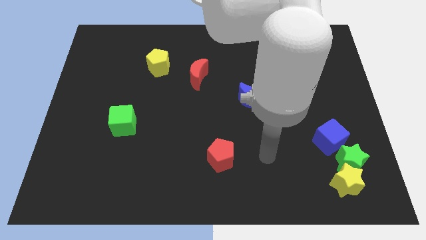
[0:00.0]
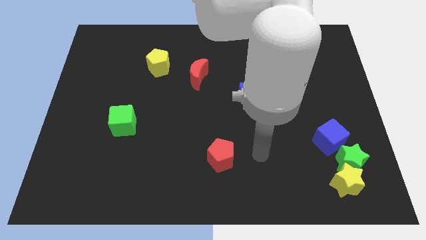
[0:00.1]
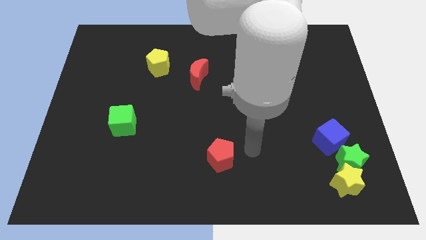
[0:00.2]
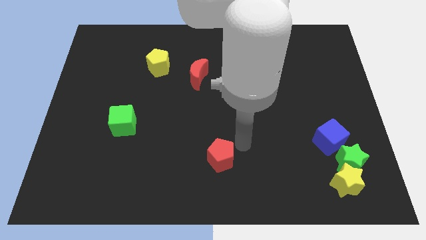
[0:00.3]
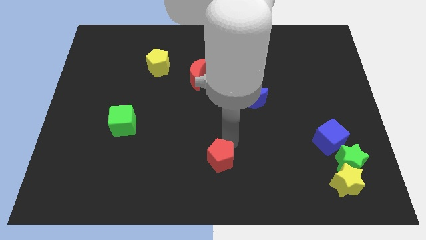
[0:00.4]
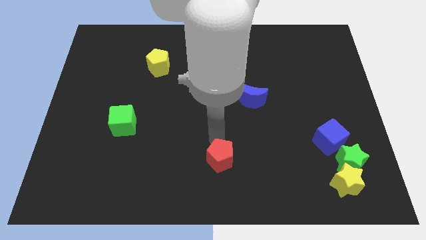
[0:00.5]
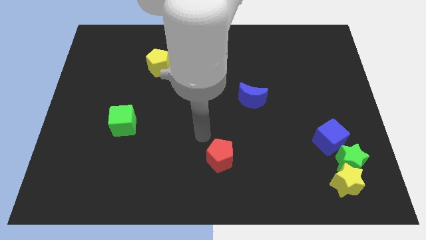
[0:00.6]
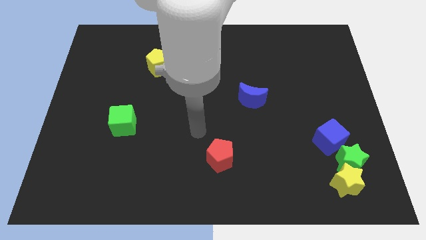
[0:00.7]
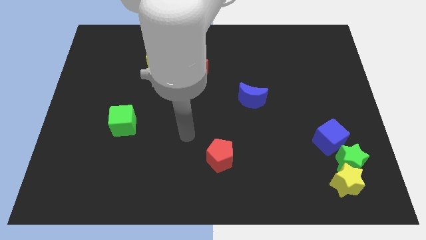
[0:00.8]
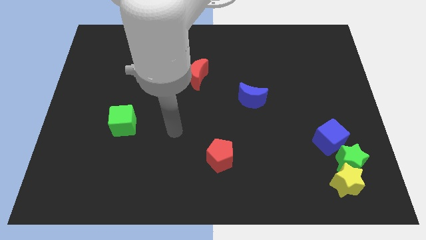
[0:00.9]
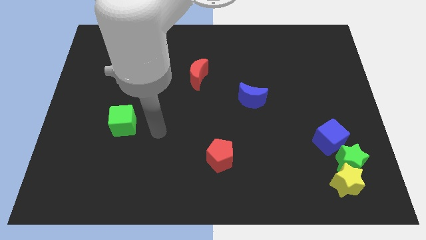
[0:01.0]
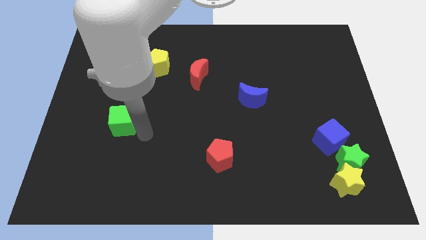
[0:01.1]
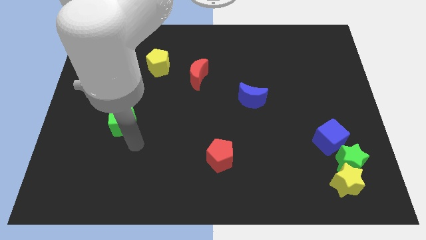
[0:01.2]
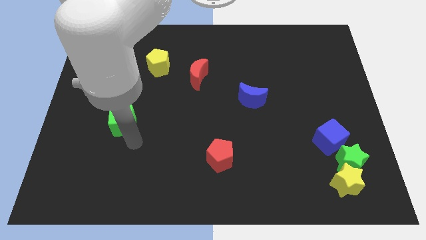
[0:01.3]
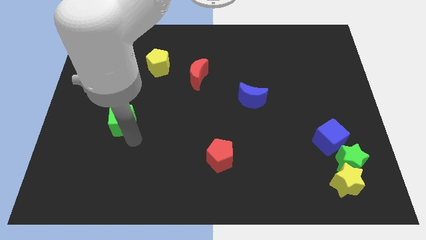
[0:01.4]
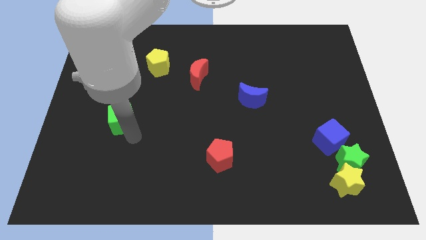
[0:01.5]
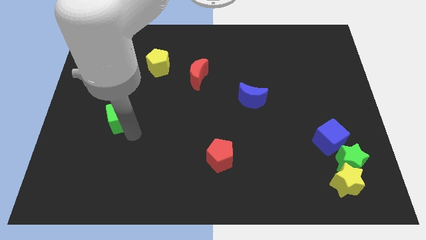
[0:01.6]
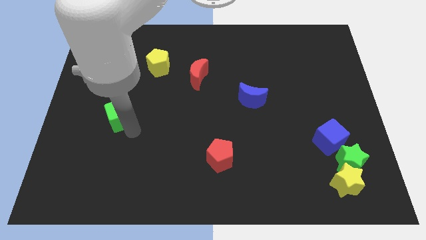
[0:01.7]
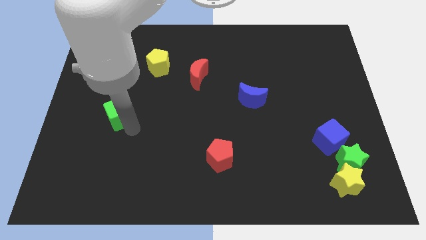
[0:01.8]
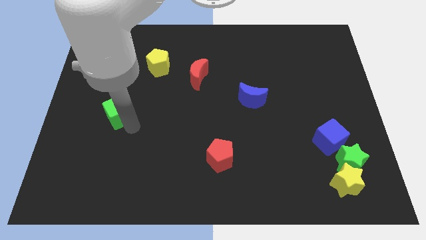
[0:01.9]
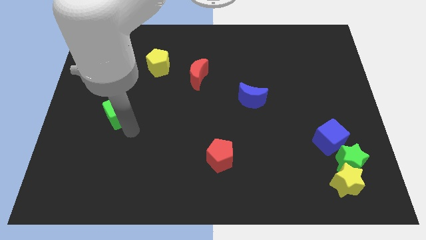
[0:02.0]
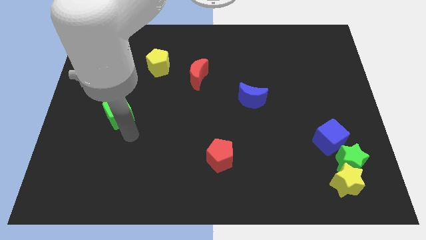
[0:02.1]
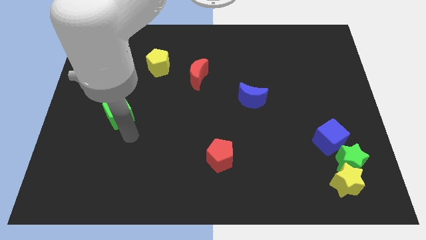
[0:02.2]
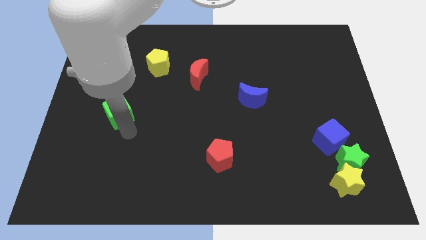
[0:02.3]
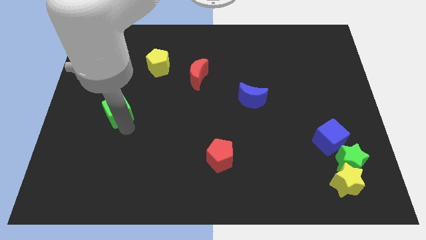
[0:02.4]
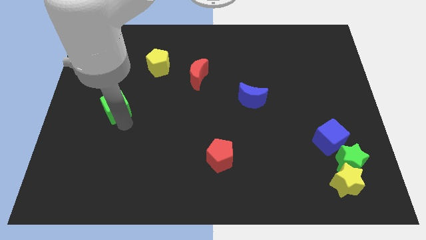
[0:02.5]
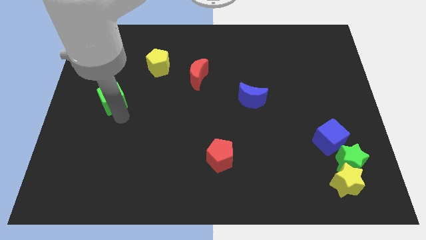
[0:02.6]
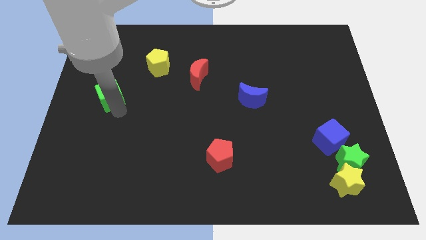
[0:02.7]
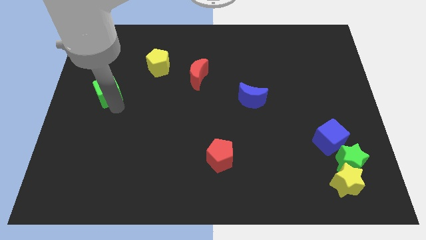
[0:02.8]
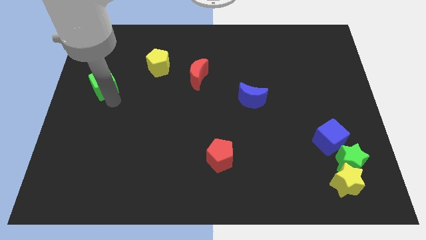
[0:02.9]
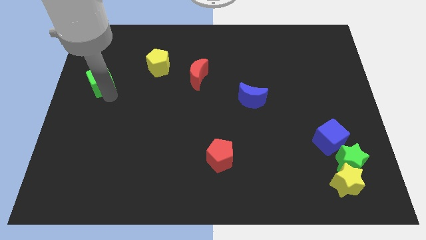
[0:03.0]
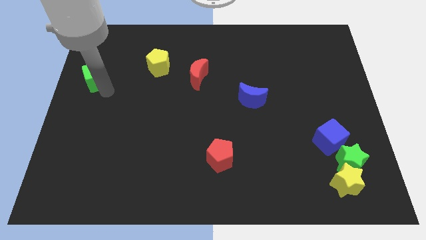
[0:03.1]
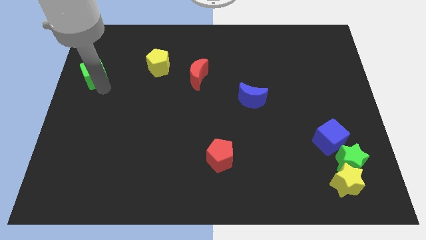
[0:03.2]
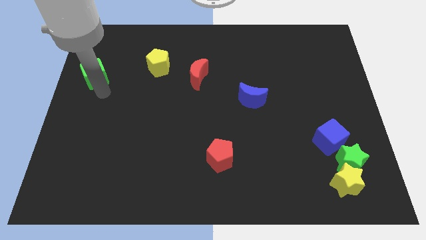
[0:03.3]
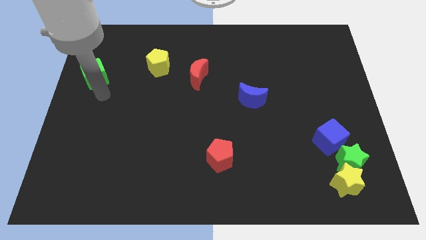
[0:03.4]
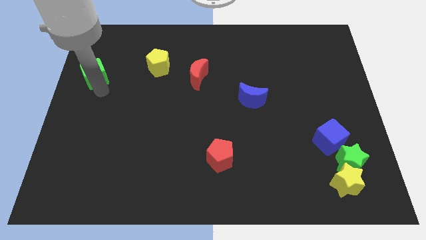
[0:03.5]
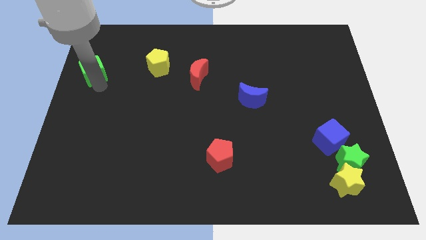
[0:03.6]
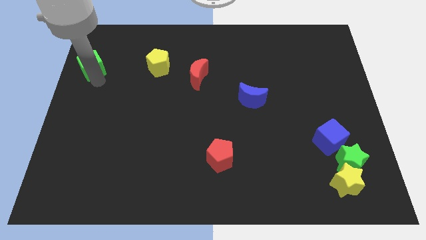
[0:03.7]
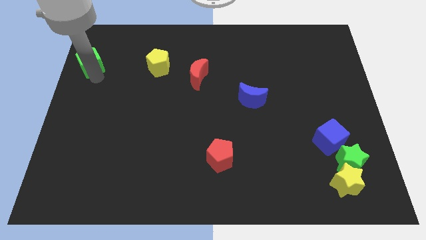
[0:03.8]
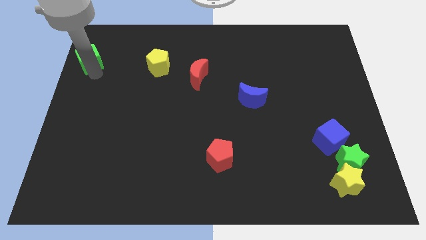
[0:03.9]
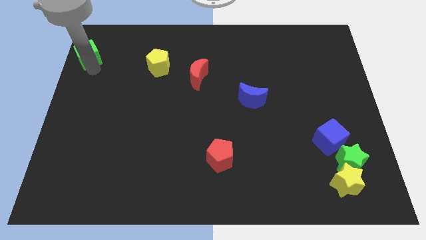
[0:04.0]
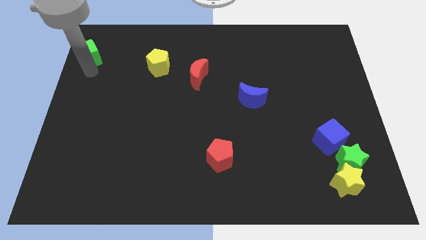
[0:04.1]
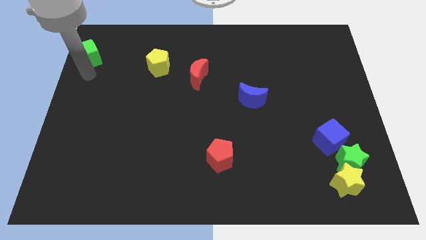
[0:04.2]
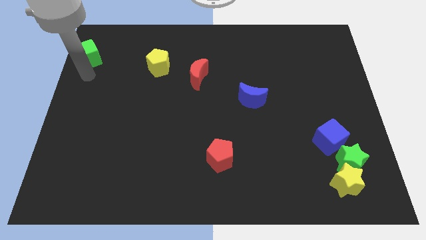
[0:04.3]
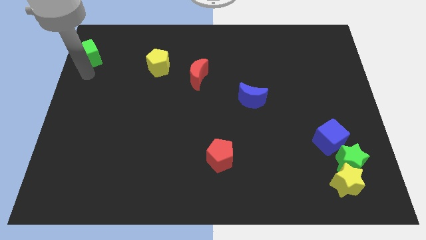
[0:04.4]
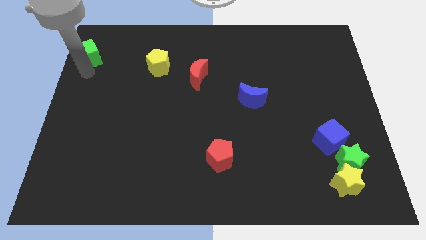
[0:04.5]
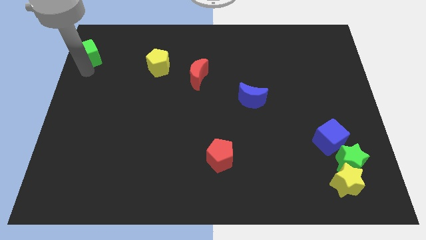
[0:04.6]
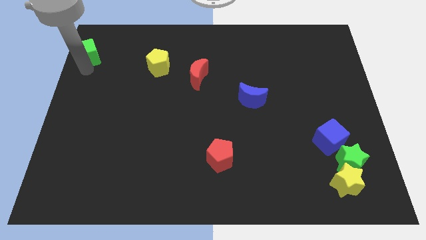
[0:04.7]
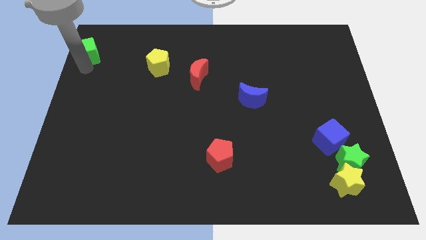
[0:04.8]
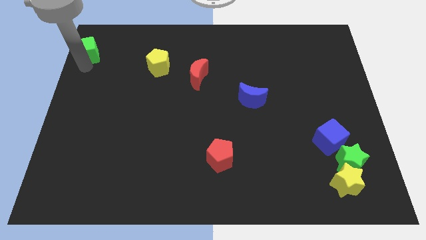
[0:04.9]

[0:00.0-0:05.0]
slide the green cube to the top left of the board

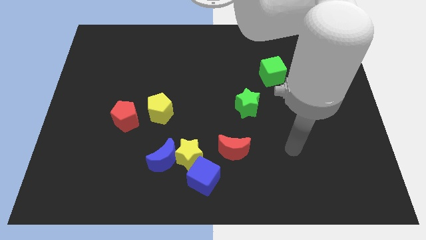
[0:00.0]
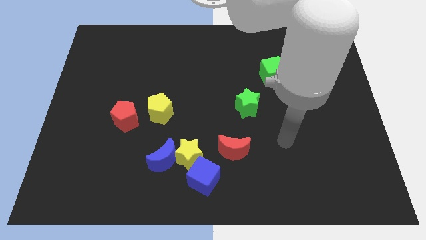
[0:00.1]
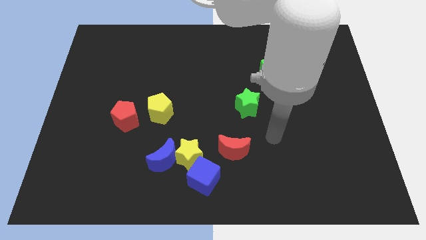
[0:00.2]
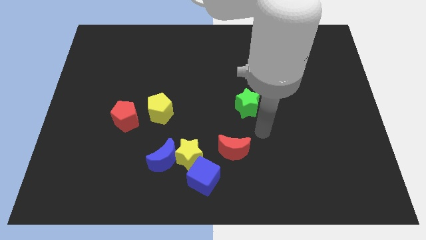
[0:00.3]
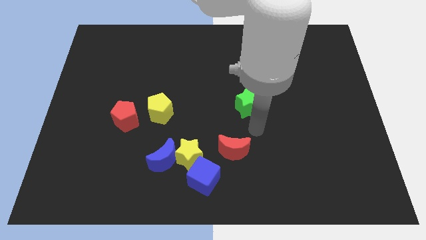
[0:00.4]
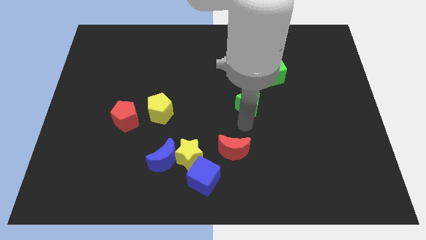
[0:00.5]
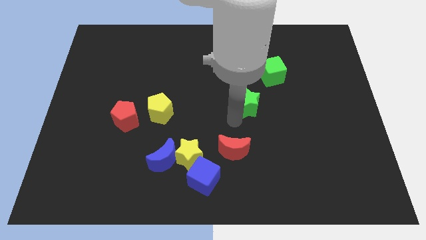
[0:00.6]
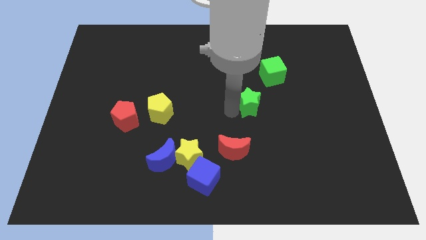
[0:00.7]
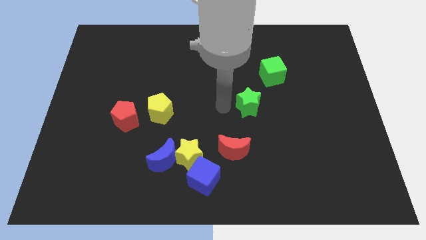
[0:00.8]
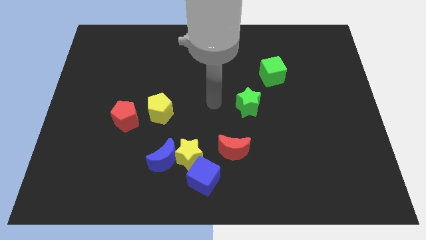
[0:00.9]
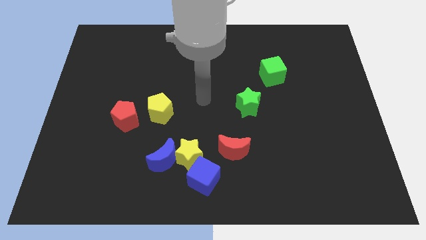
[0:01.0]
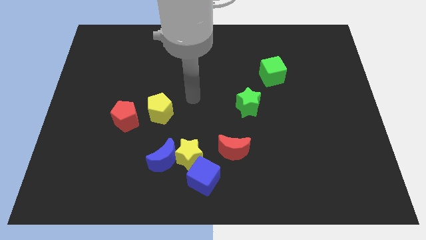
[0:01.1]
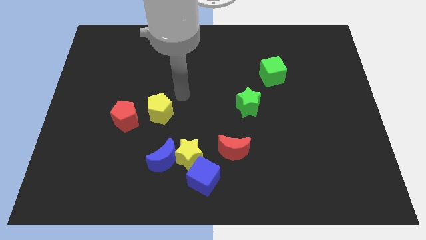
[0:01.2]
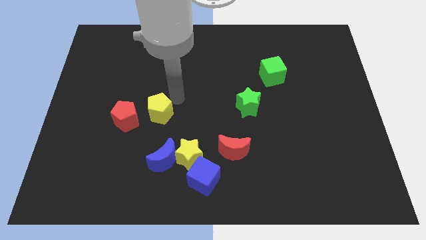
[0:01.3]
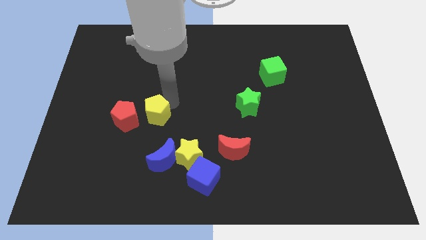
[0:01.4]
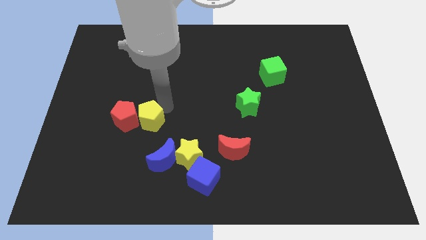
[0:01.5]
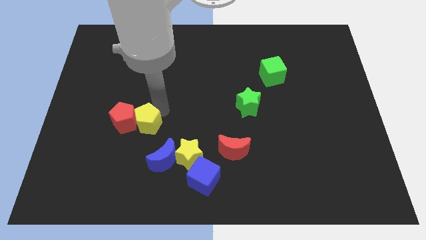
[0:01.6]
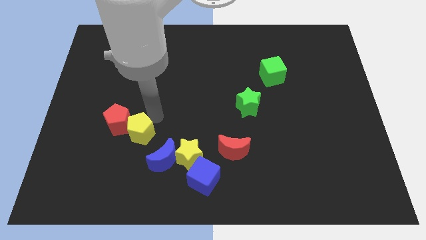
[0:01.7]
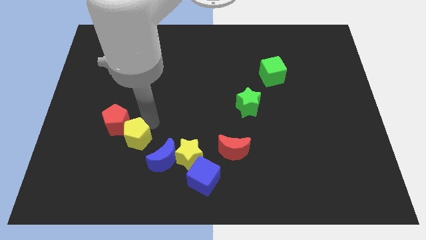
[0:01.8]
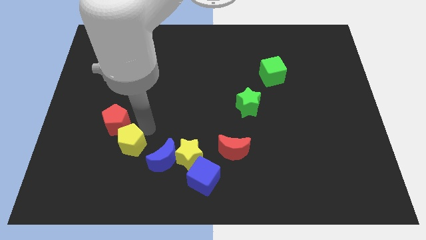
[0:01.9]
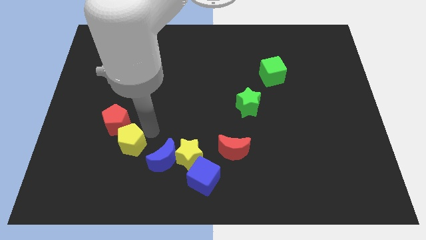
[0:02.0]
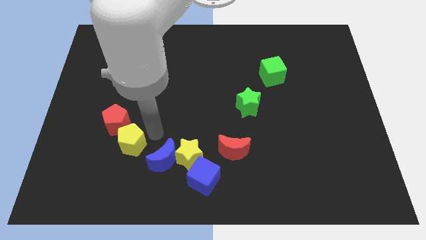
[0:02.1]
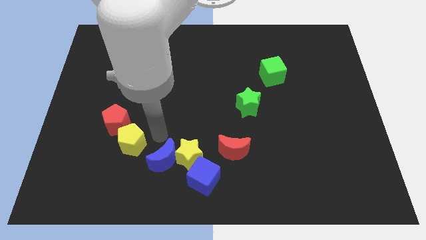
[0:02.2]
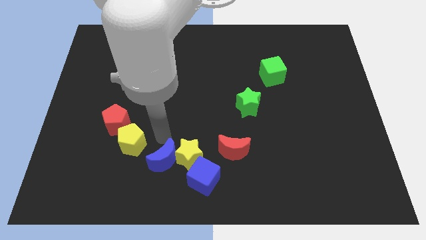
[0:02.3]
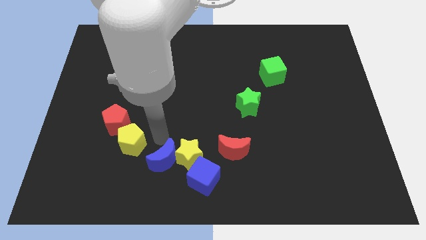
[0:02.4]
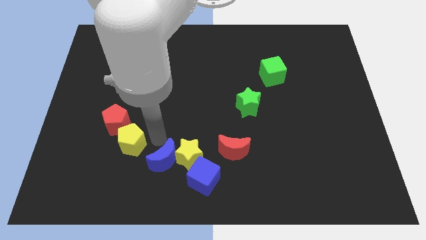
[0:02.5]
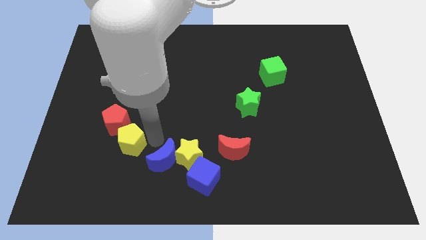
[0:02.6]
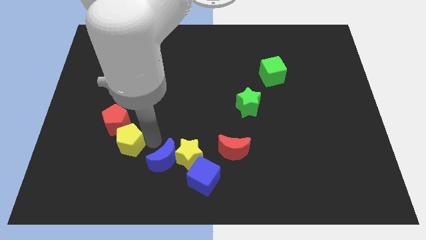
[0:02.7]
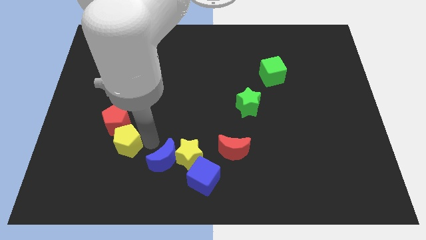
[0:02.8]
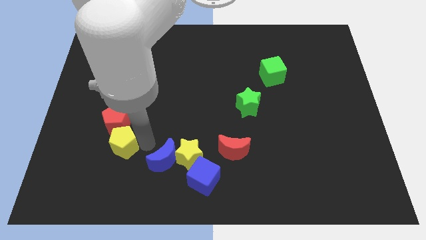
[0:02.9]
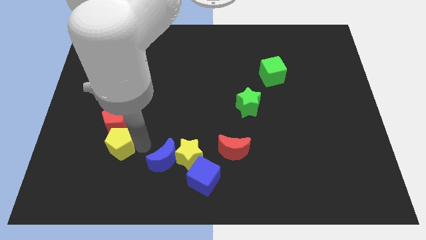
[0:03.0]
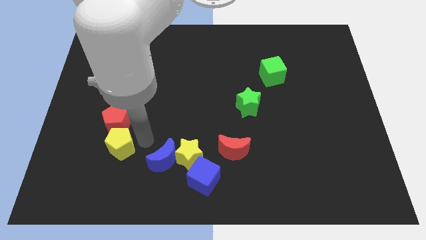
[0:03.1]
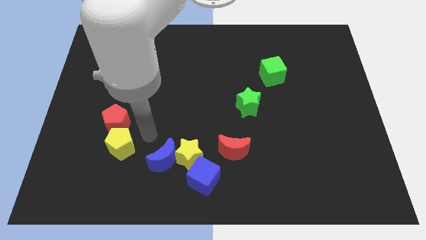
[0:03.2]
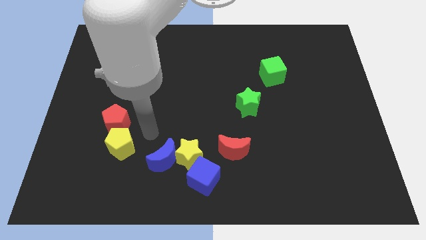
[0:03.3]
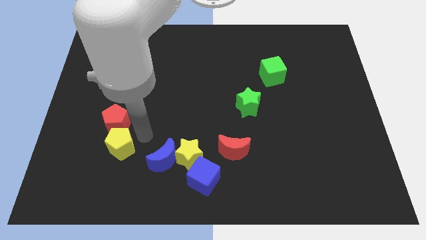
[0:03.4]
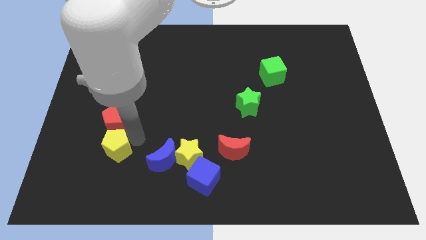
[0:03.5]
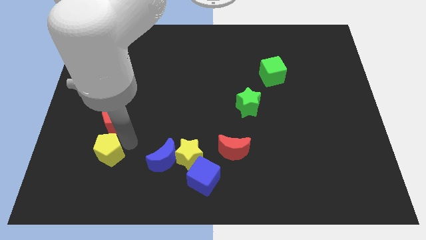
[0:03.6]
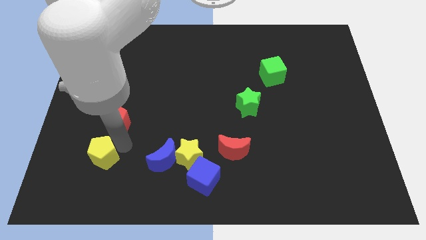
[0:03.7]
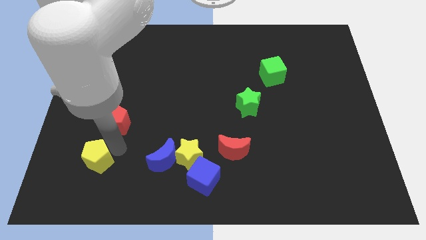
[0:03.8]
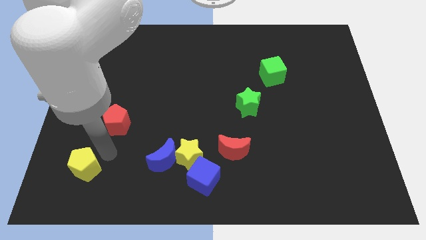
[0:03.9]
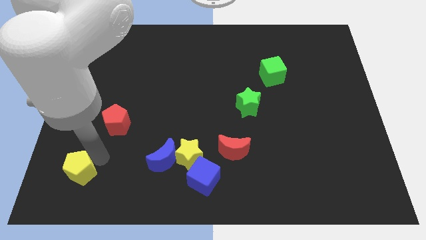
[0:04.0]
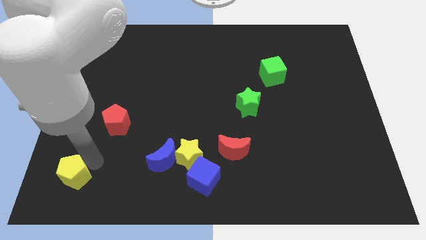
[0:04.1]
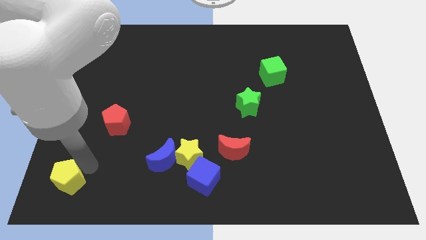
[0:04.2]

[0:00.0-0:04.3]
slide the yellow pentagon to the bottom left corner
